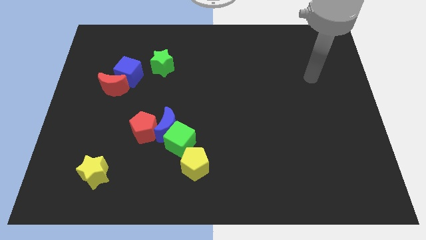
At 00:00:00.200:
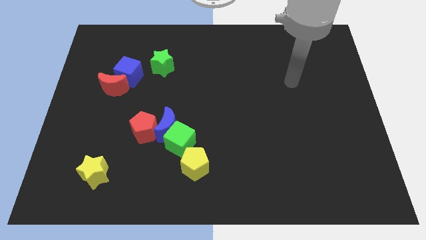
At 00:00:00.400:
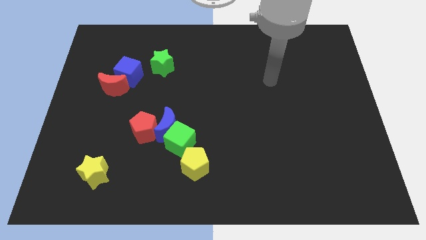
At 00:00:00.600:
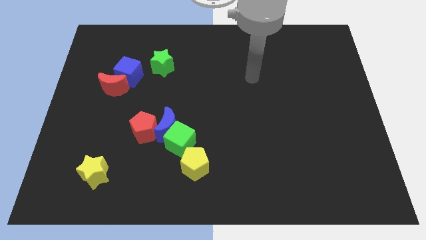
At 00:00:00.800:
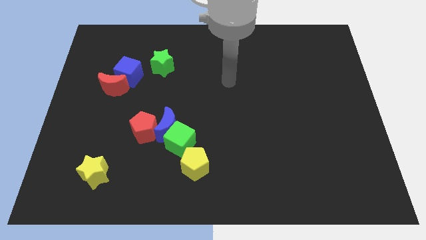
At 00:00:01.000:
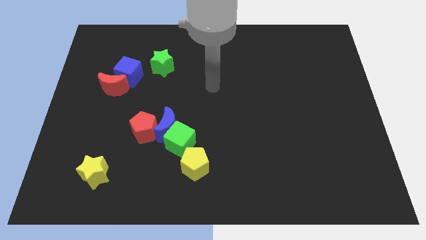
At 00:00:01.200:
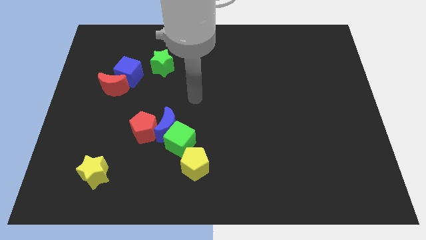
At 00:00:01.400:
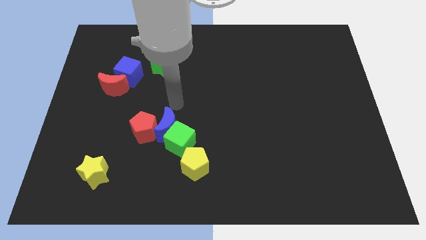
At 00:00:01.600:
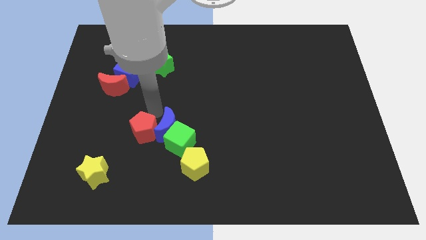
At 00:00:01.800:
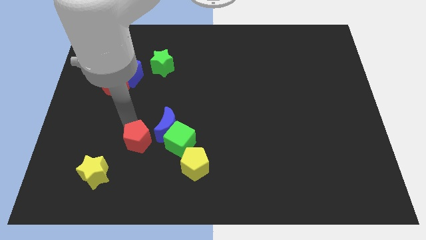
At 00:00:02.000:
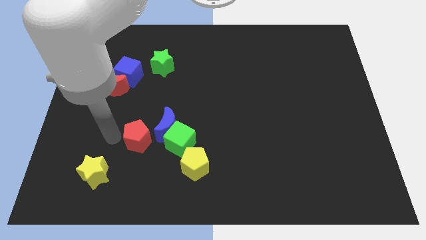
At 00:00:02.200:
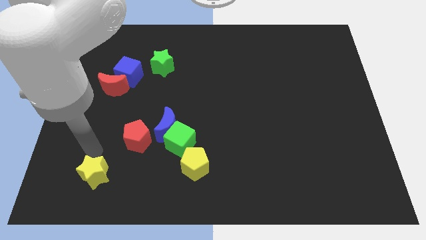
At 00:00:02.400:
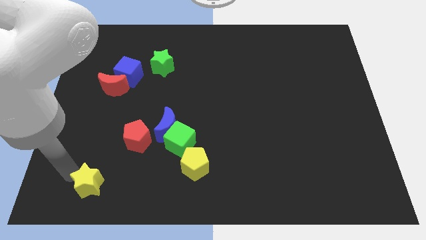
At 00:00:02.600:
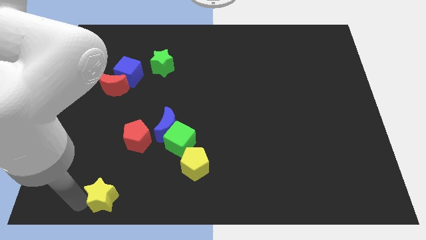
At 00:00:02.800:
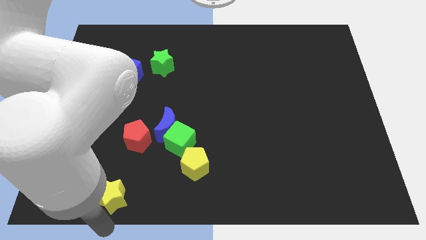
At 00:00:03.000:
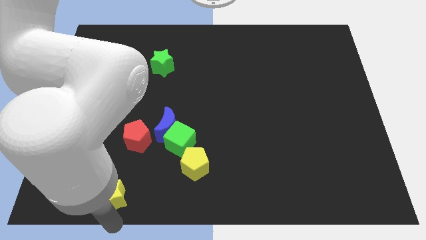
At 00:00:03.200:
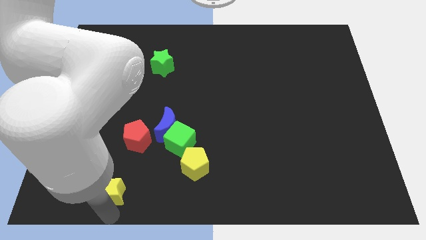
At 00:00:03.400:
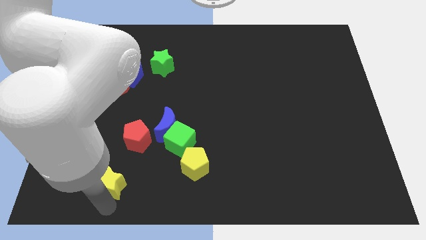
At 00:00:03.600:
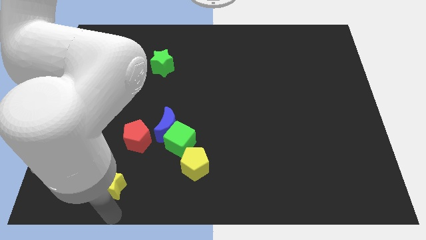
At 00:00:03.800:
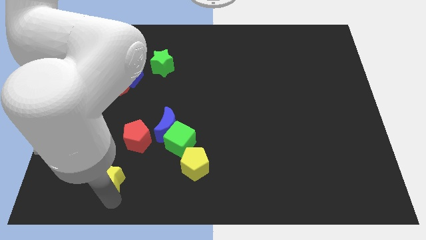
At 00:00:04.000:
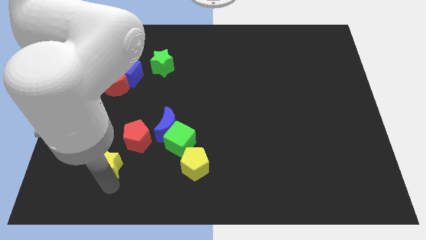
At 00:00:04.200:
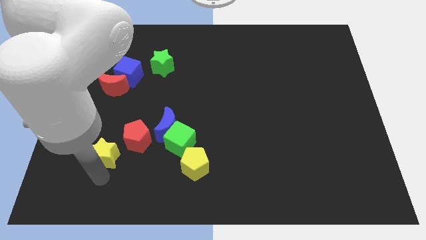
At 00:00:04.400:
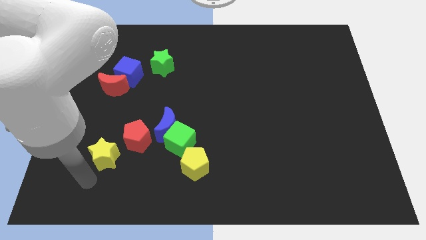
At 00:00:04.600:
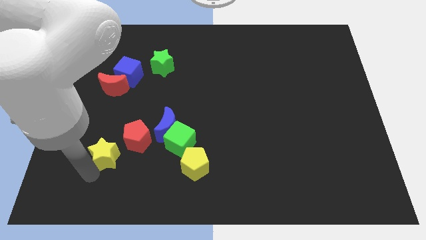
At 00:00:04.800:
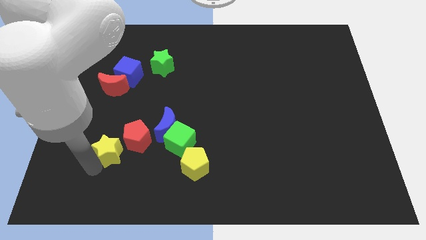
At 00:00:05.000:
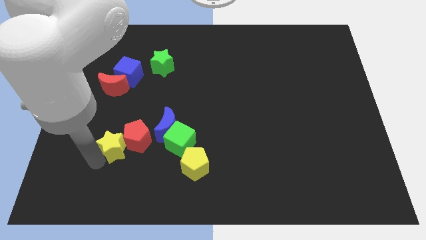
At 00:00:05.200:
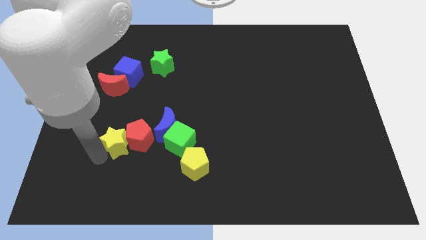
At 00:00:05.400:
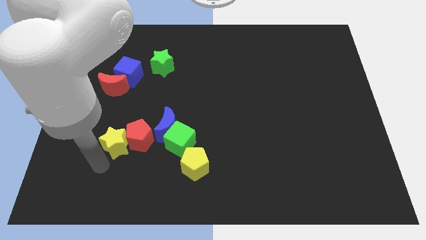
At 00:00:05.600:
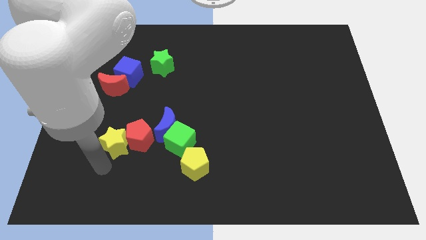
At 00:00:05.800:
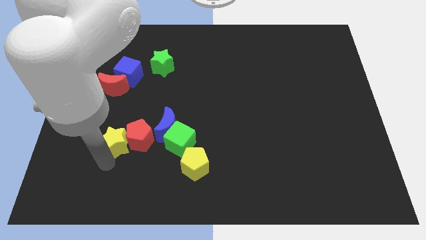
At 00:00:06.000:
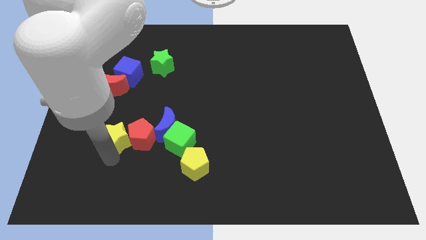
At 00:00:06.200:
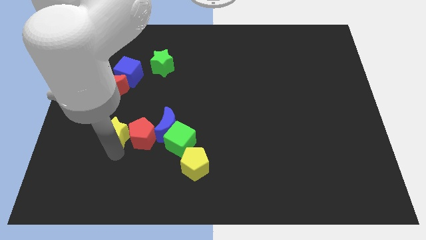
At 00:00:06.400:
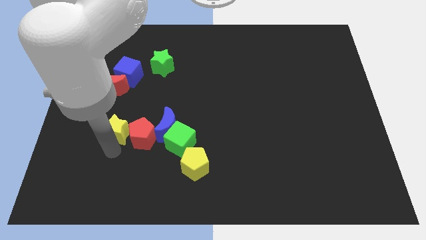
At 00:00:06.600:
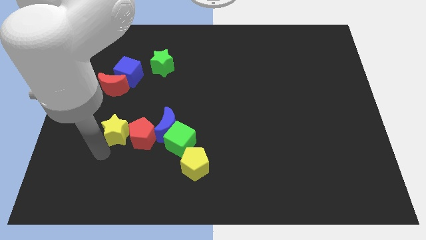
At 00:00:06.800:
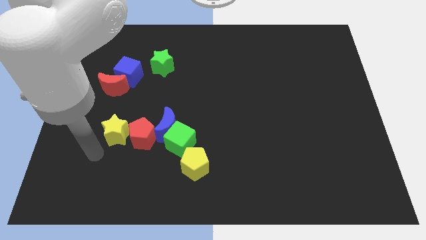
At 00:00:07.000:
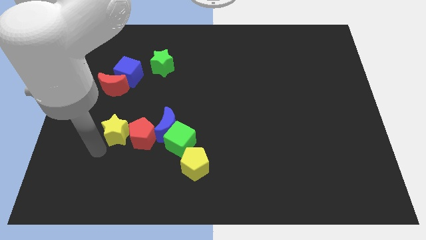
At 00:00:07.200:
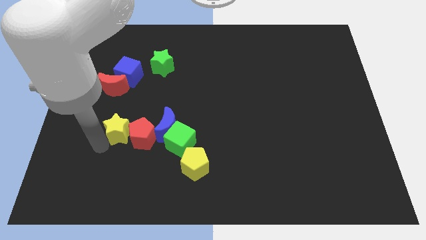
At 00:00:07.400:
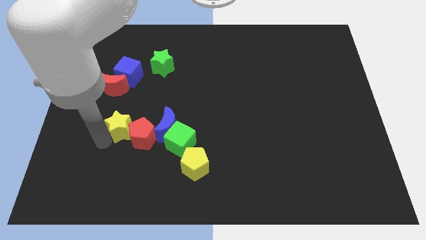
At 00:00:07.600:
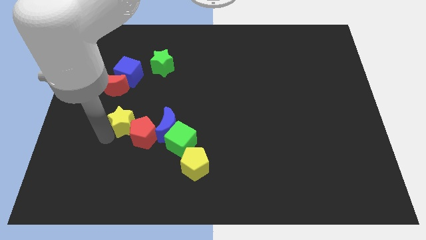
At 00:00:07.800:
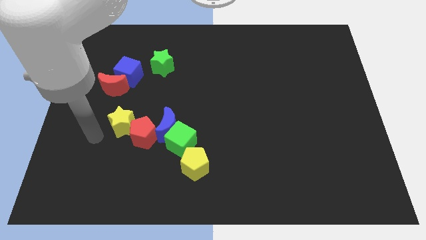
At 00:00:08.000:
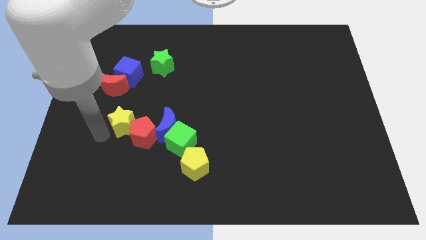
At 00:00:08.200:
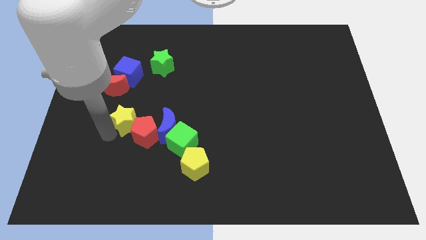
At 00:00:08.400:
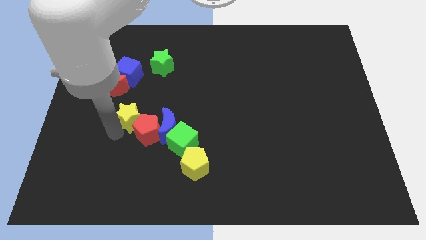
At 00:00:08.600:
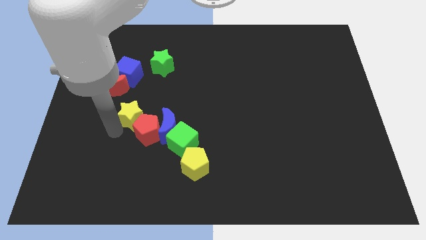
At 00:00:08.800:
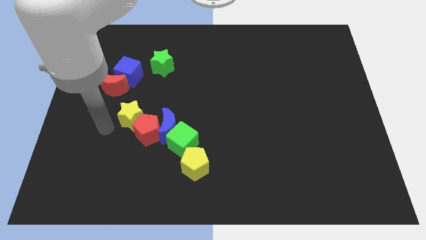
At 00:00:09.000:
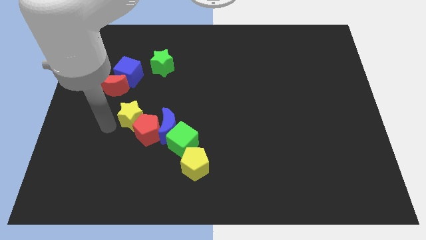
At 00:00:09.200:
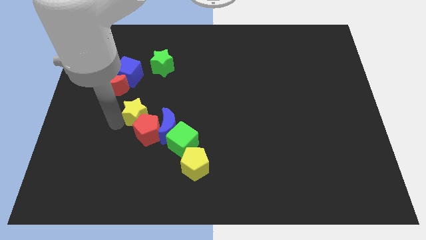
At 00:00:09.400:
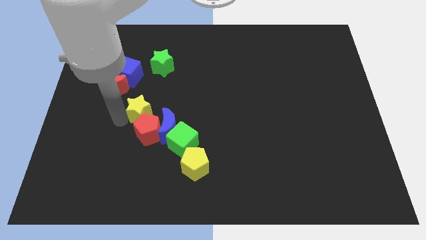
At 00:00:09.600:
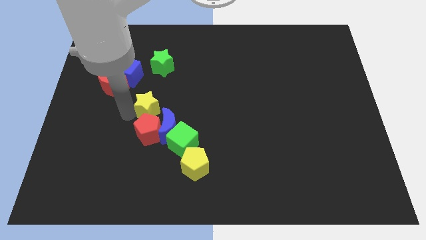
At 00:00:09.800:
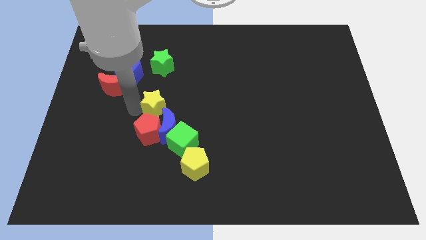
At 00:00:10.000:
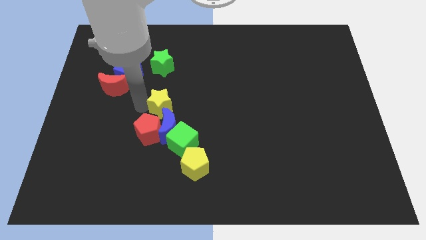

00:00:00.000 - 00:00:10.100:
put the yellow star to the middle

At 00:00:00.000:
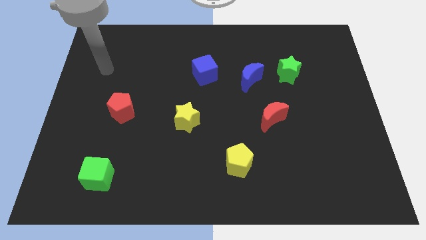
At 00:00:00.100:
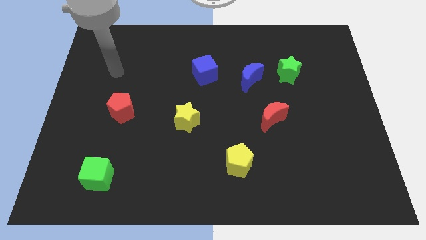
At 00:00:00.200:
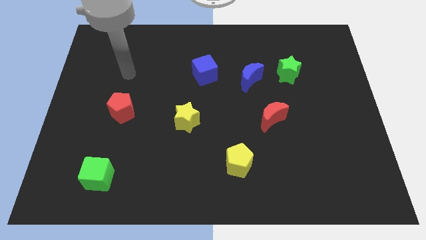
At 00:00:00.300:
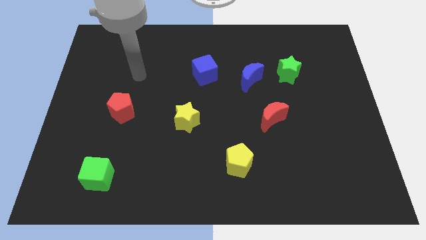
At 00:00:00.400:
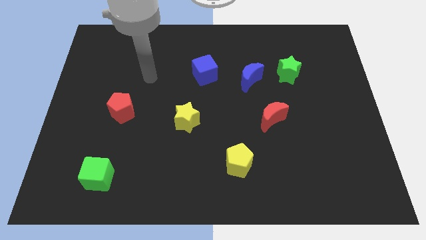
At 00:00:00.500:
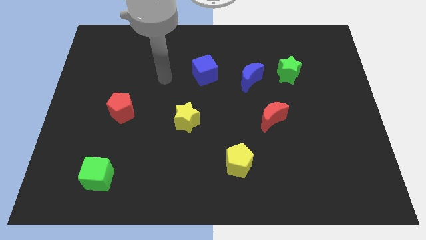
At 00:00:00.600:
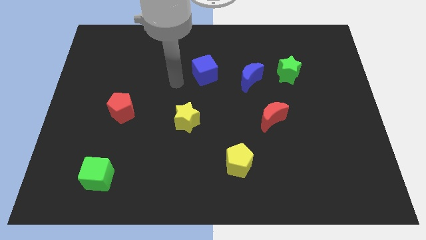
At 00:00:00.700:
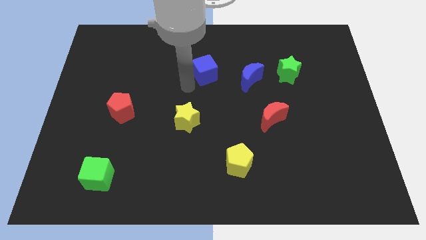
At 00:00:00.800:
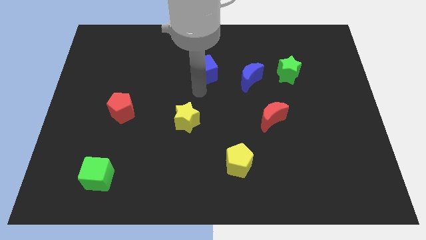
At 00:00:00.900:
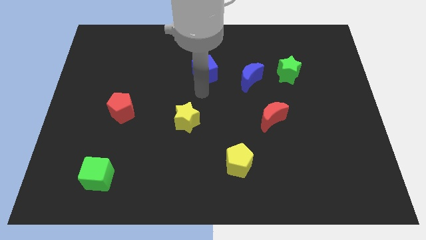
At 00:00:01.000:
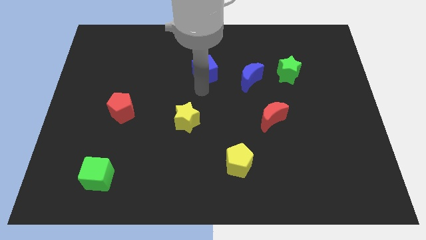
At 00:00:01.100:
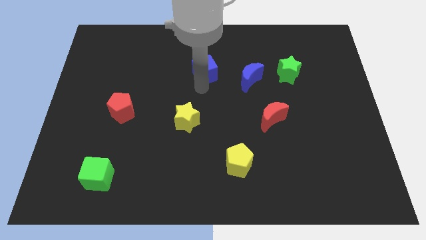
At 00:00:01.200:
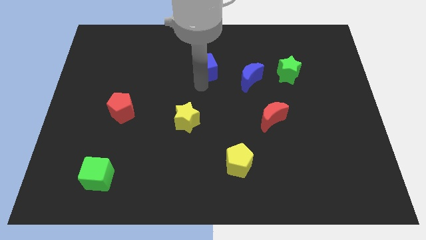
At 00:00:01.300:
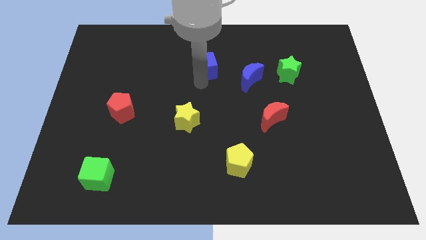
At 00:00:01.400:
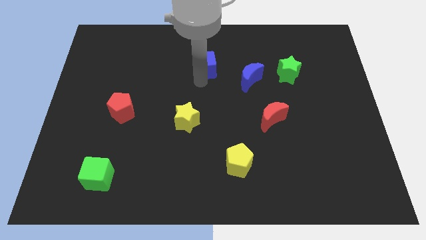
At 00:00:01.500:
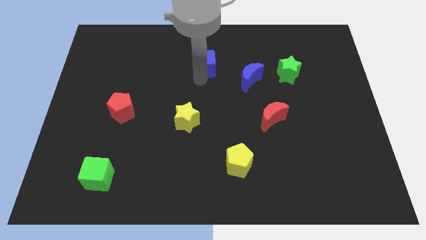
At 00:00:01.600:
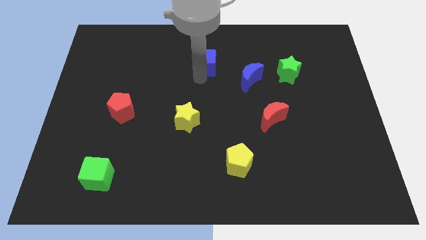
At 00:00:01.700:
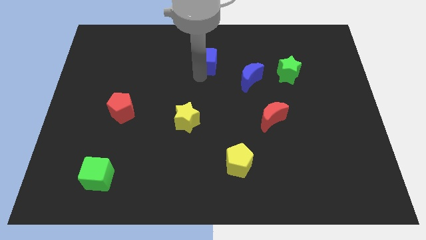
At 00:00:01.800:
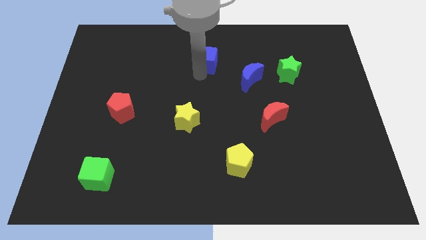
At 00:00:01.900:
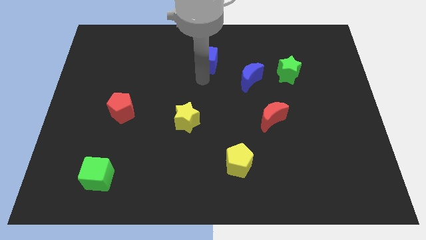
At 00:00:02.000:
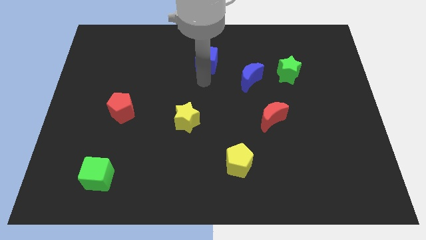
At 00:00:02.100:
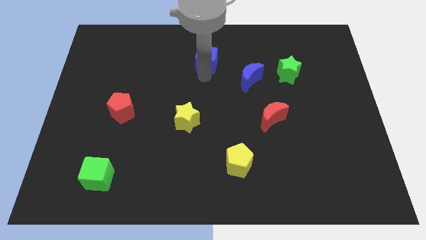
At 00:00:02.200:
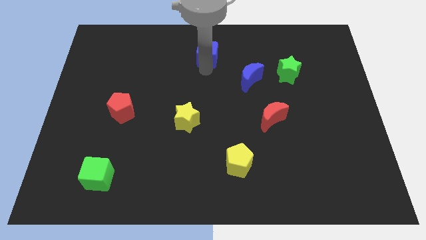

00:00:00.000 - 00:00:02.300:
put the blue cube to the top
